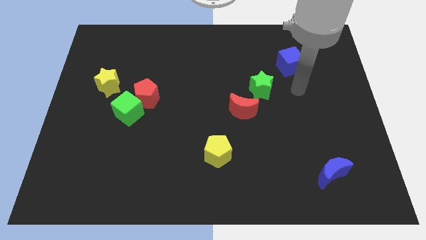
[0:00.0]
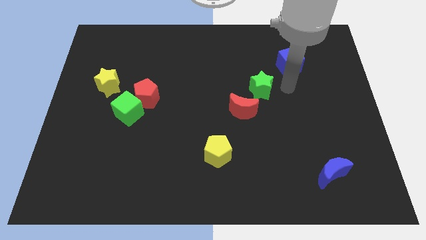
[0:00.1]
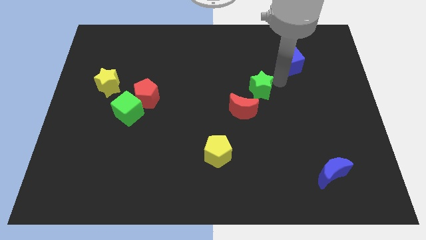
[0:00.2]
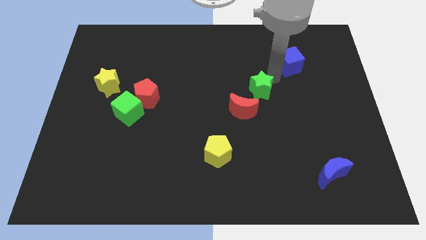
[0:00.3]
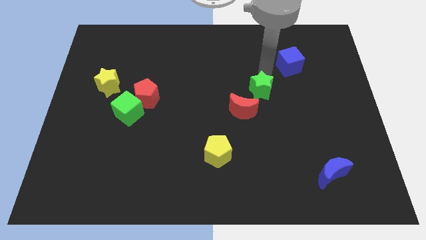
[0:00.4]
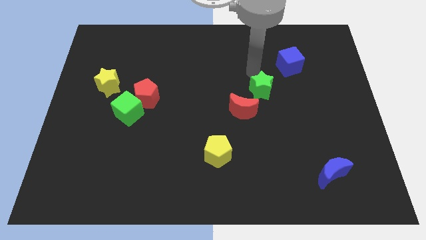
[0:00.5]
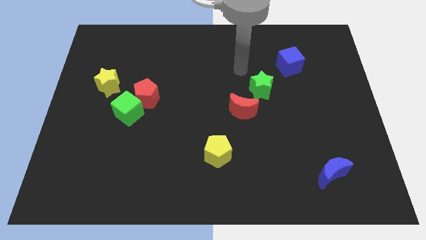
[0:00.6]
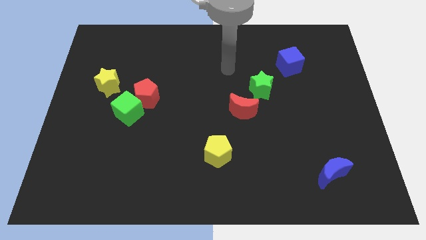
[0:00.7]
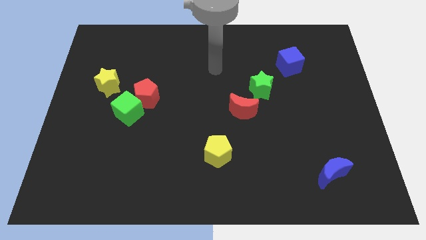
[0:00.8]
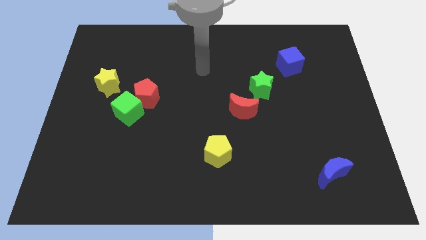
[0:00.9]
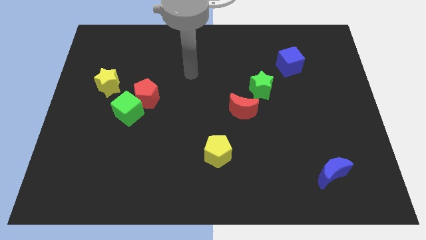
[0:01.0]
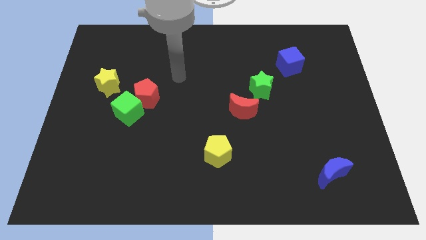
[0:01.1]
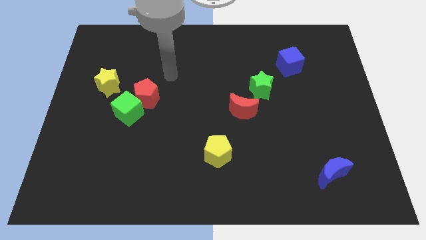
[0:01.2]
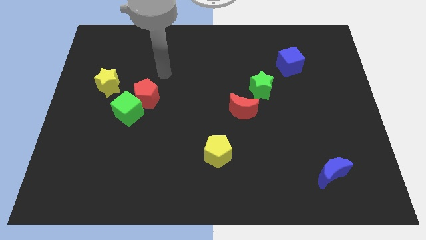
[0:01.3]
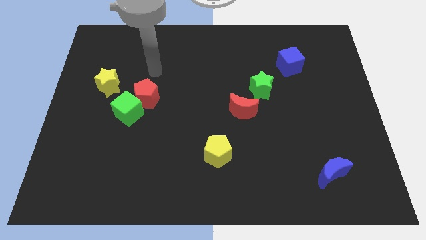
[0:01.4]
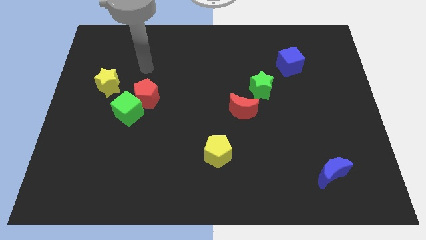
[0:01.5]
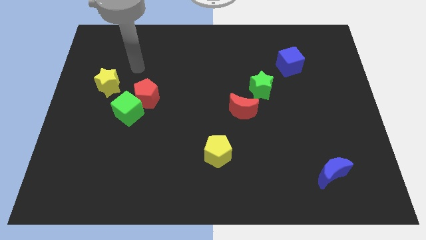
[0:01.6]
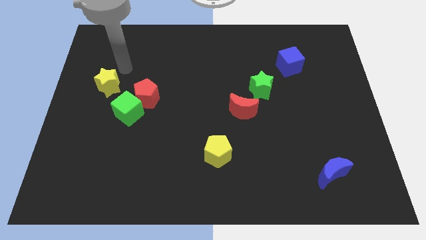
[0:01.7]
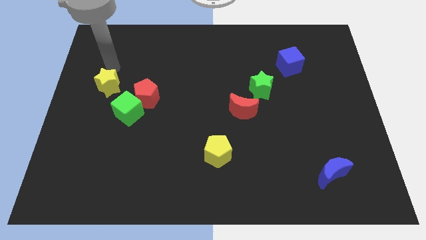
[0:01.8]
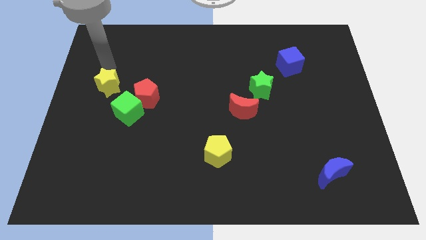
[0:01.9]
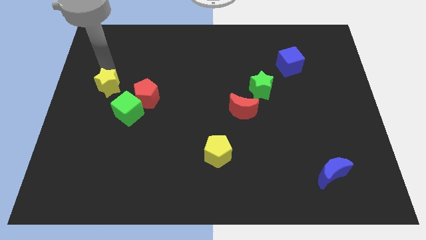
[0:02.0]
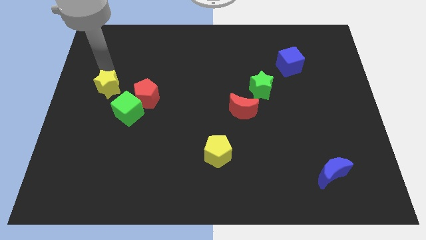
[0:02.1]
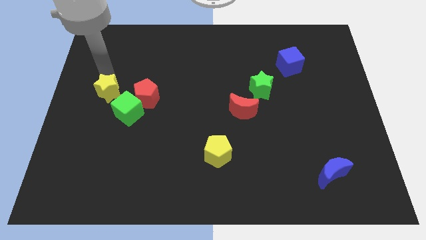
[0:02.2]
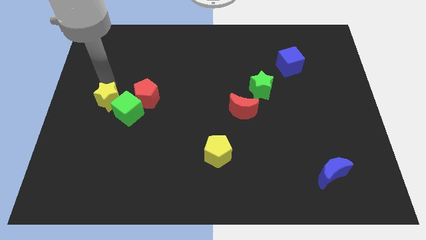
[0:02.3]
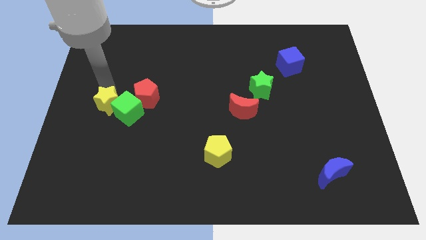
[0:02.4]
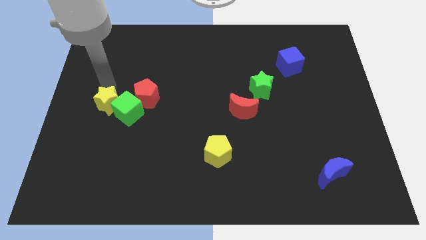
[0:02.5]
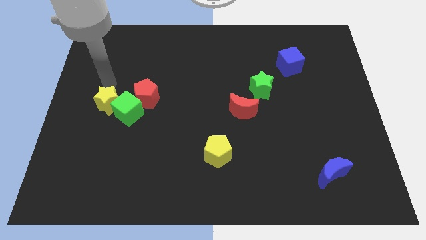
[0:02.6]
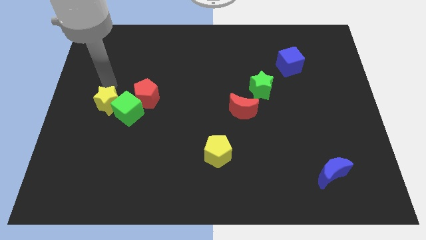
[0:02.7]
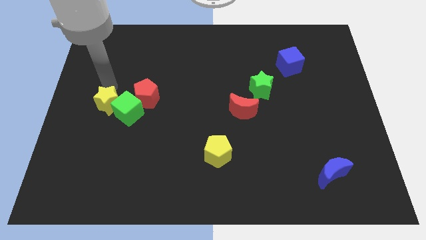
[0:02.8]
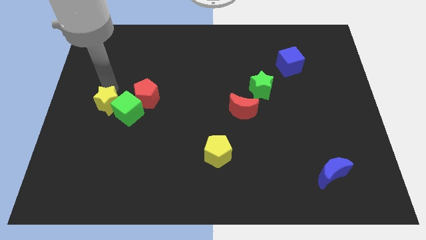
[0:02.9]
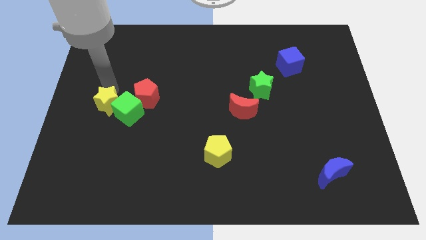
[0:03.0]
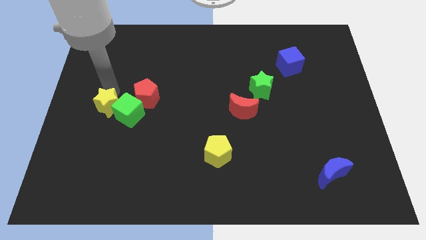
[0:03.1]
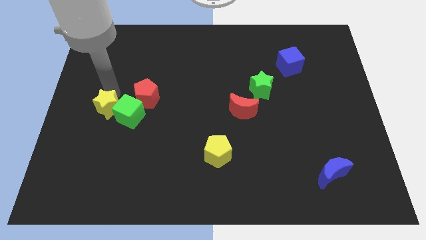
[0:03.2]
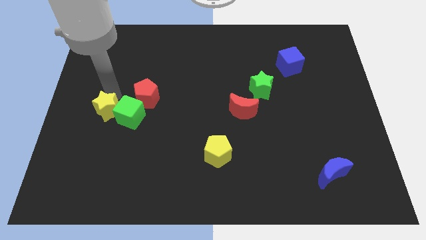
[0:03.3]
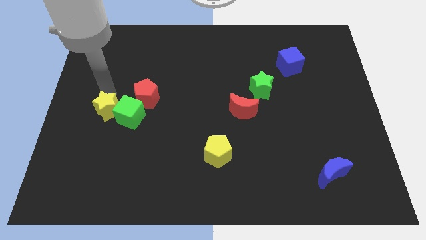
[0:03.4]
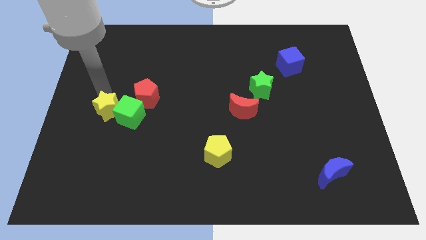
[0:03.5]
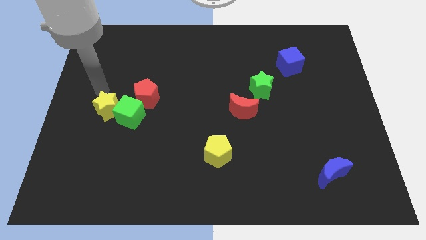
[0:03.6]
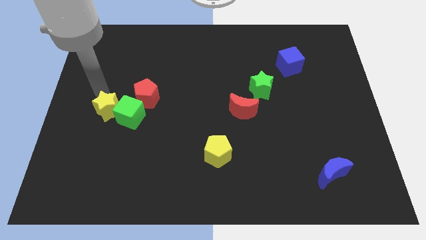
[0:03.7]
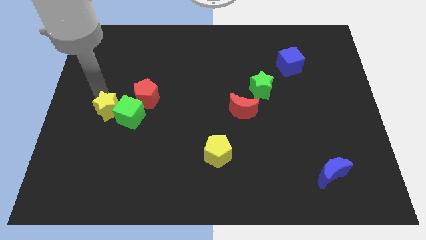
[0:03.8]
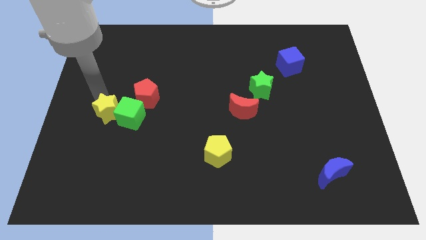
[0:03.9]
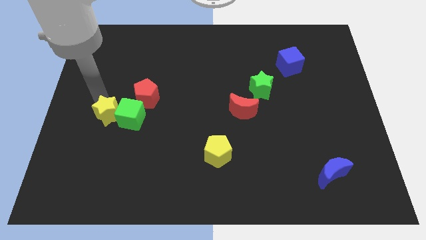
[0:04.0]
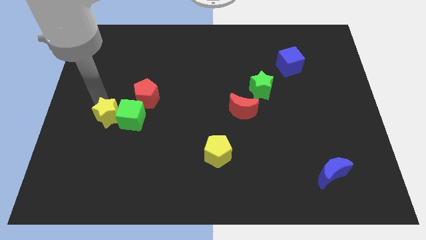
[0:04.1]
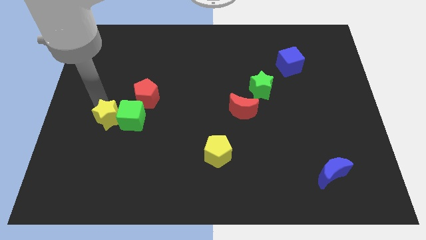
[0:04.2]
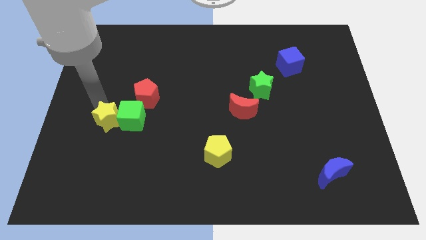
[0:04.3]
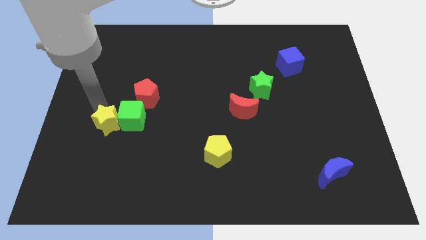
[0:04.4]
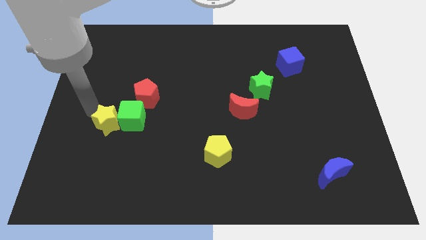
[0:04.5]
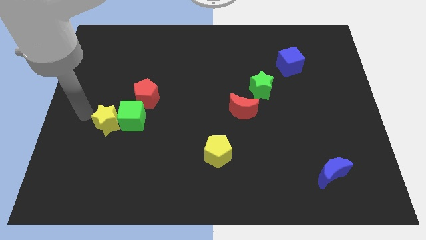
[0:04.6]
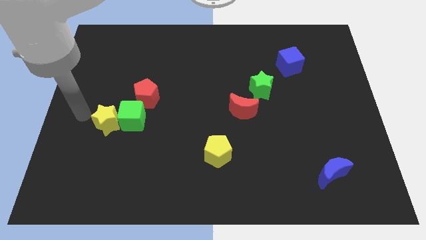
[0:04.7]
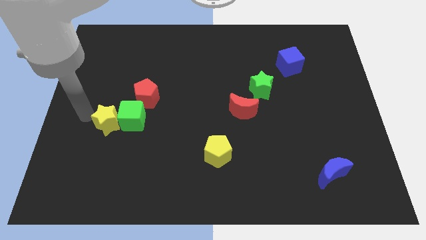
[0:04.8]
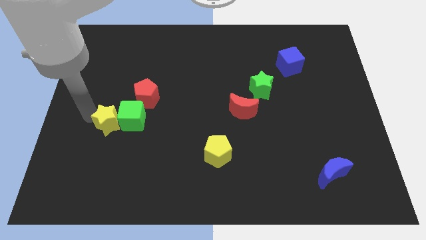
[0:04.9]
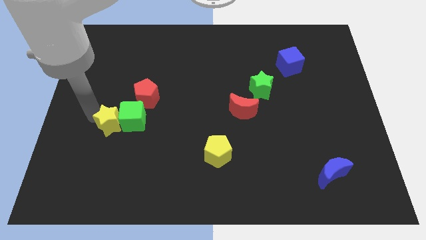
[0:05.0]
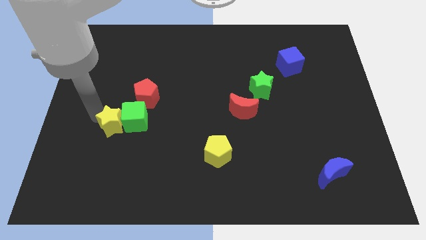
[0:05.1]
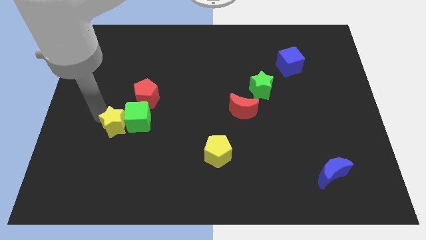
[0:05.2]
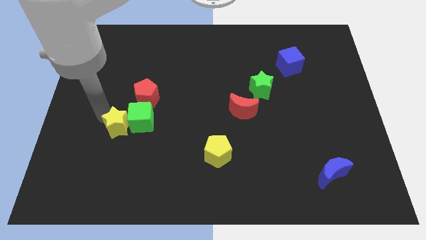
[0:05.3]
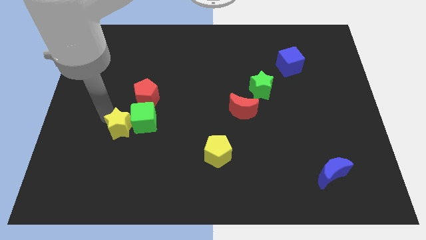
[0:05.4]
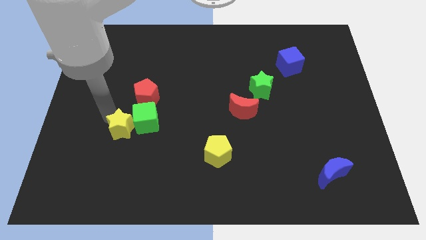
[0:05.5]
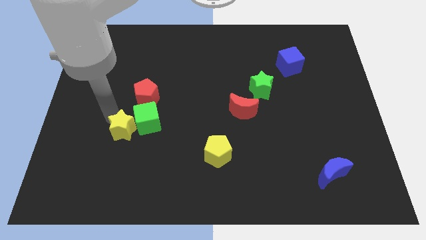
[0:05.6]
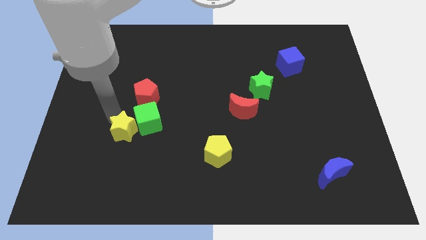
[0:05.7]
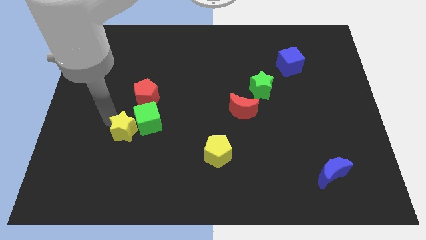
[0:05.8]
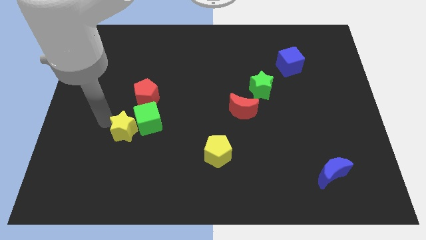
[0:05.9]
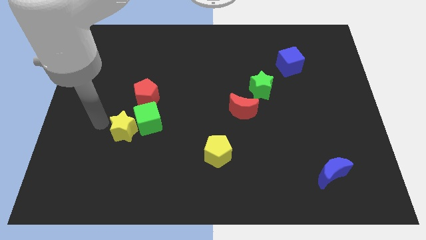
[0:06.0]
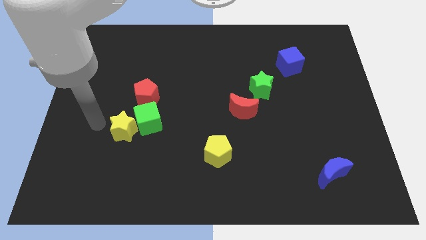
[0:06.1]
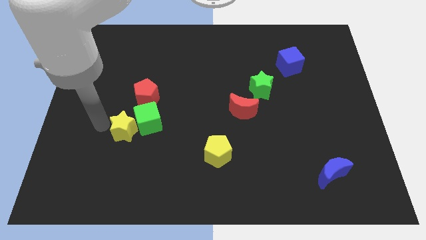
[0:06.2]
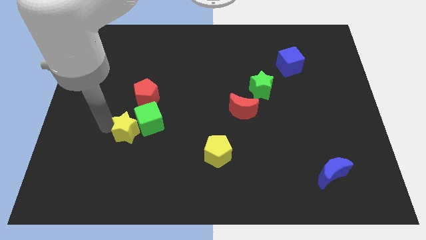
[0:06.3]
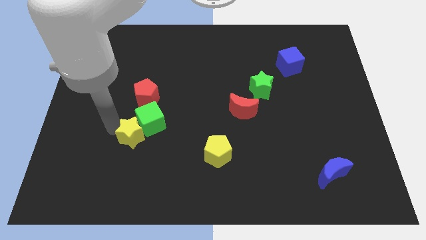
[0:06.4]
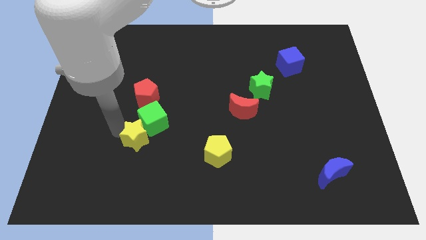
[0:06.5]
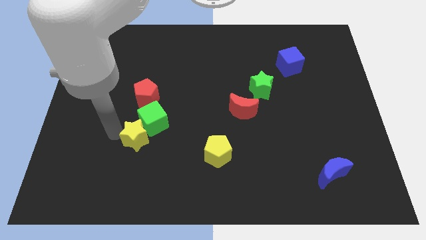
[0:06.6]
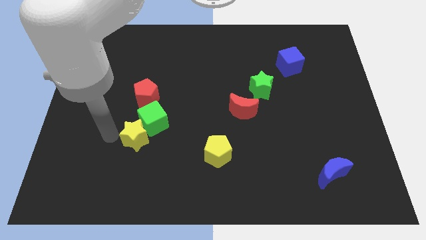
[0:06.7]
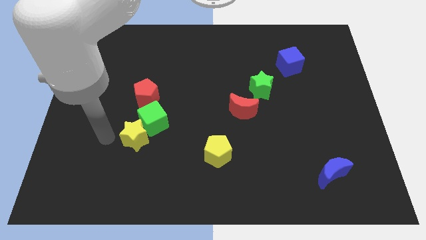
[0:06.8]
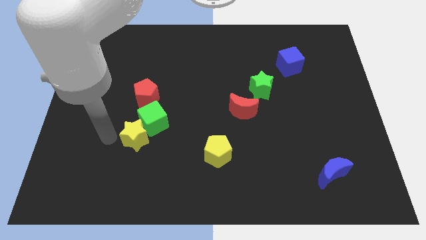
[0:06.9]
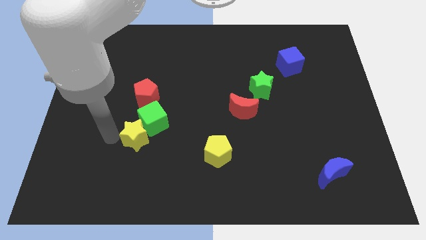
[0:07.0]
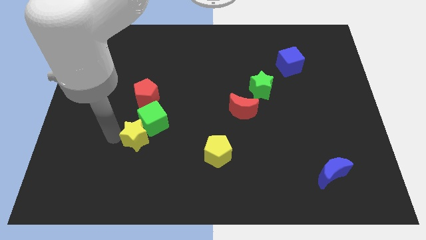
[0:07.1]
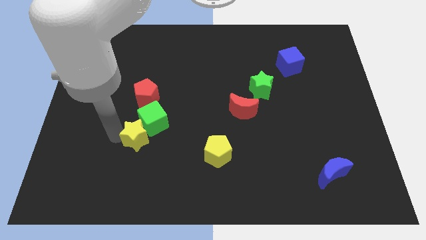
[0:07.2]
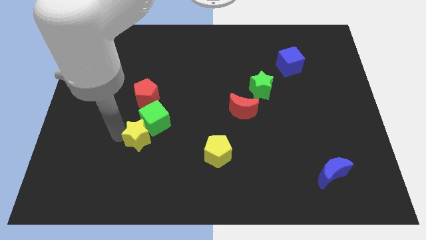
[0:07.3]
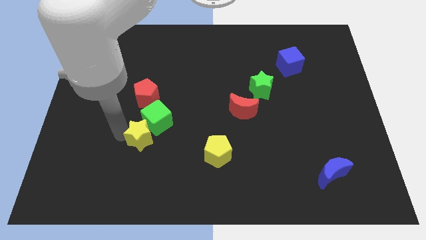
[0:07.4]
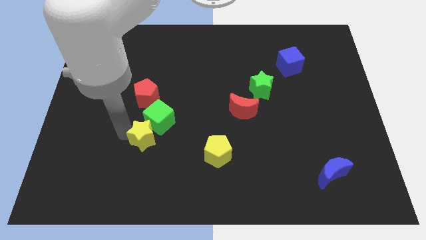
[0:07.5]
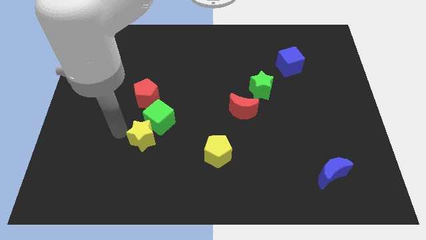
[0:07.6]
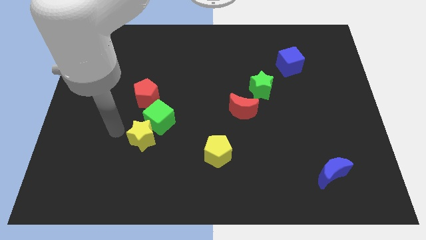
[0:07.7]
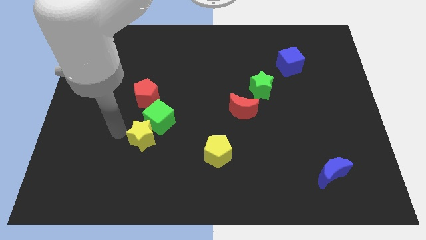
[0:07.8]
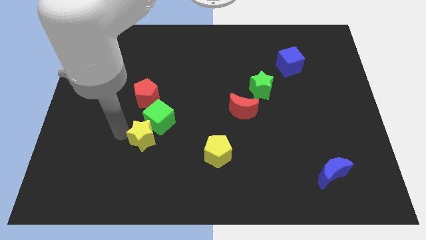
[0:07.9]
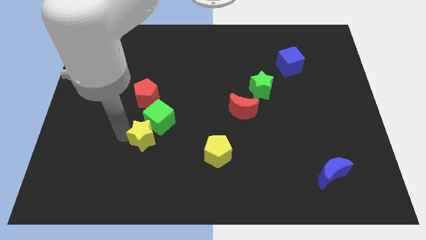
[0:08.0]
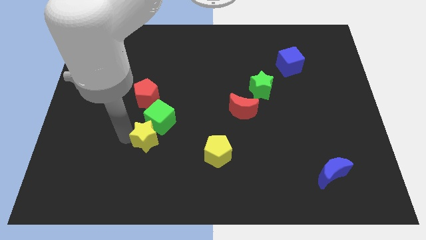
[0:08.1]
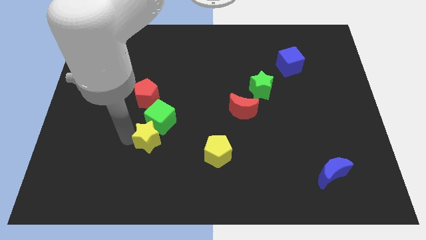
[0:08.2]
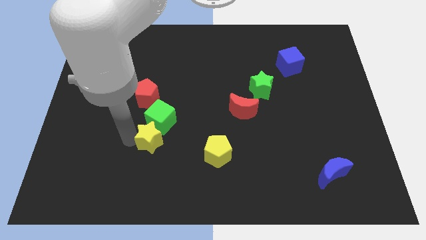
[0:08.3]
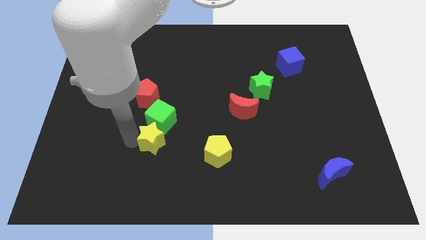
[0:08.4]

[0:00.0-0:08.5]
move the yellow star down and right
